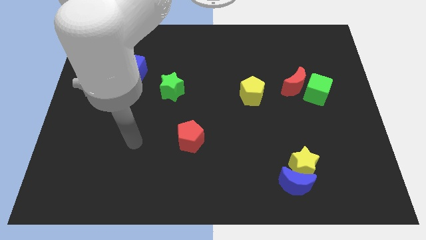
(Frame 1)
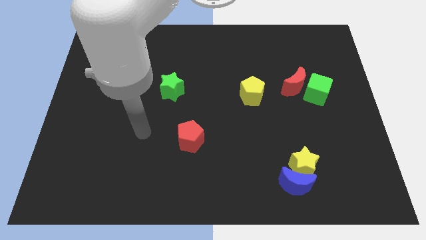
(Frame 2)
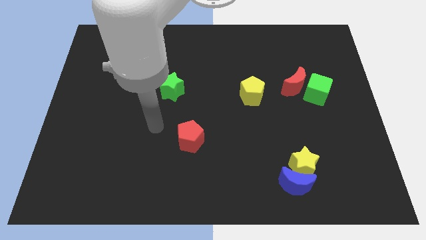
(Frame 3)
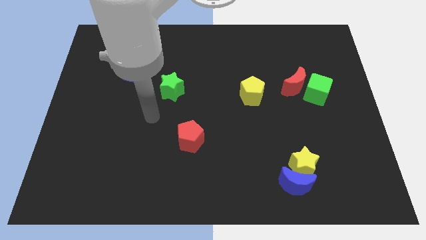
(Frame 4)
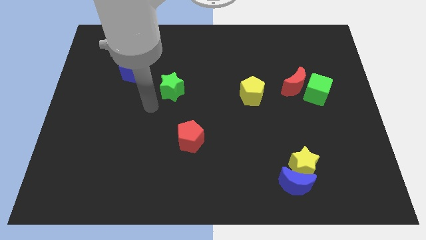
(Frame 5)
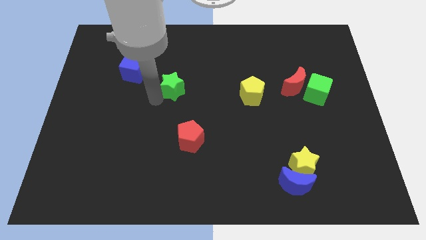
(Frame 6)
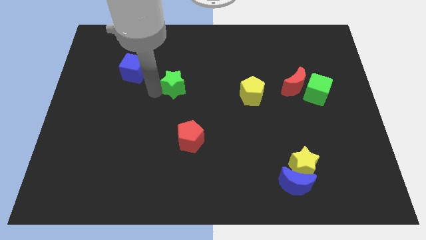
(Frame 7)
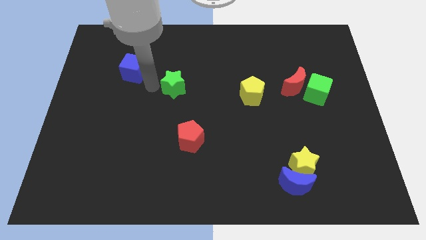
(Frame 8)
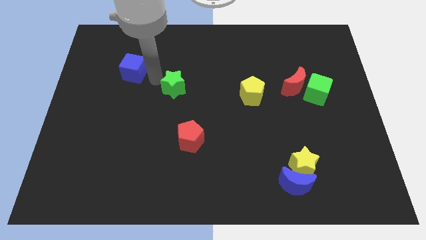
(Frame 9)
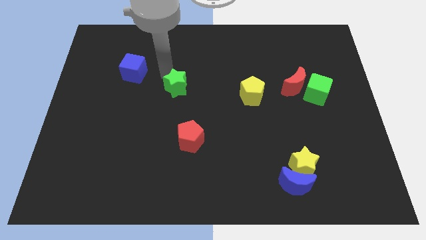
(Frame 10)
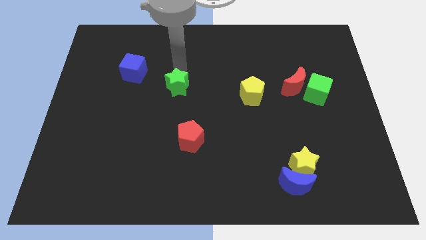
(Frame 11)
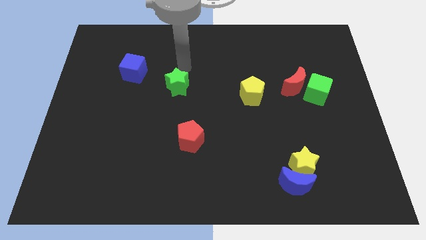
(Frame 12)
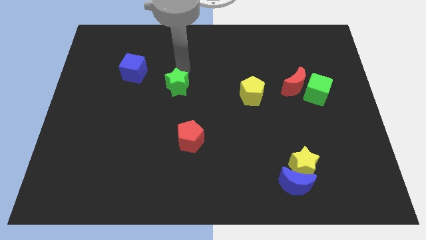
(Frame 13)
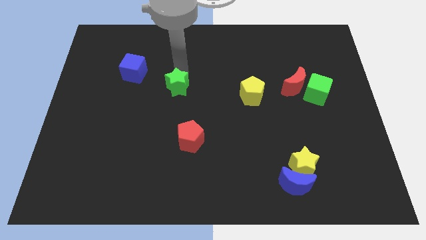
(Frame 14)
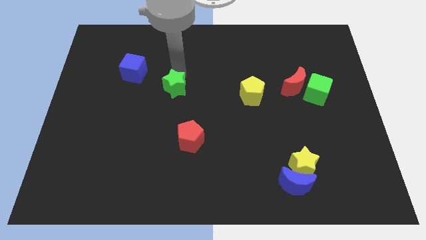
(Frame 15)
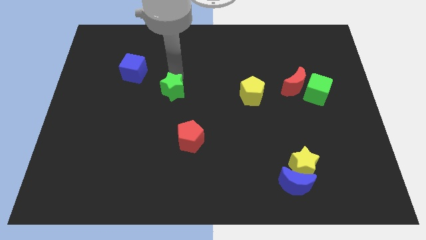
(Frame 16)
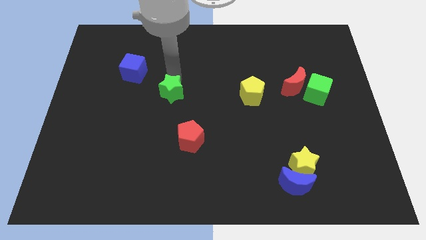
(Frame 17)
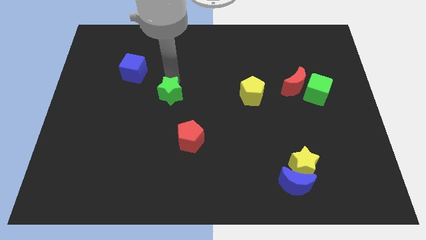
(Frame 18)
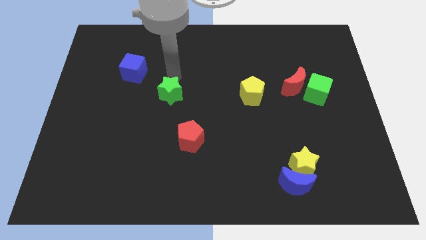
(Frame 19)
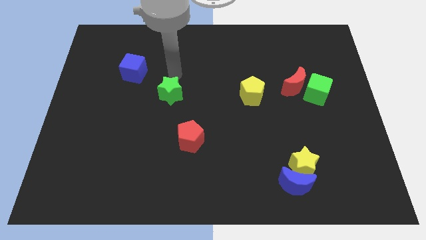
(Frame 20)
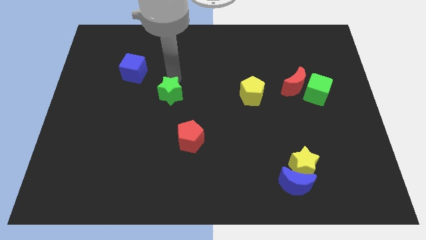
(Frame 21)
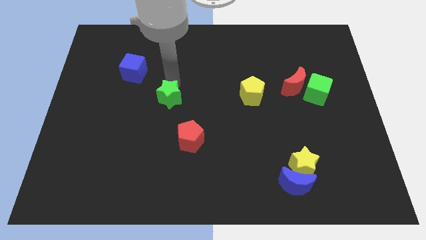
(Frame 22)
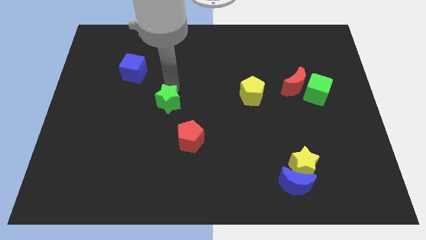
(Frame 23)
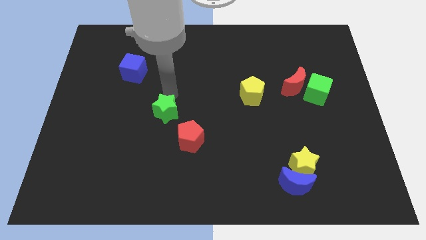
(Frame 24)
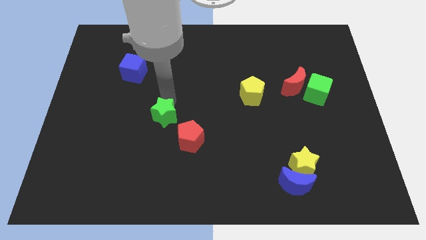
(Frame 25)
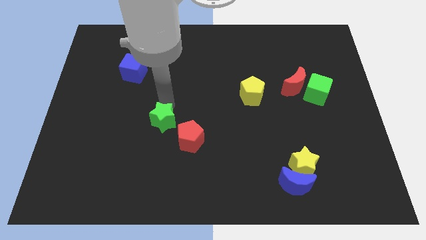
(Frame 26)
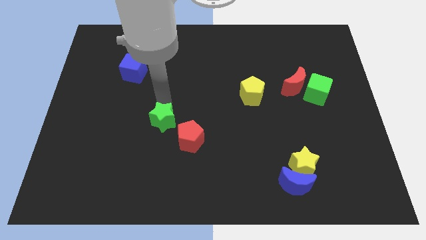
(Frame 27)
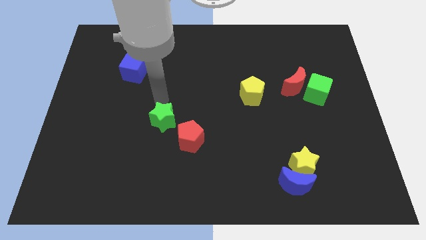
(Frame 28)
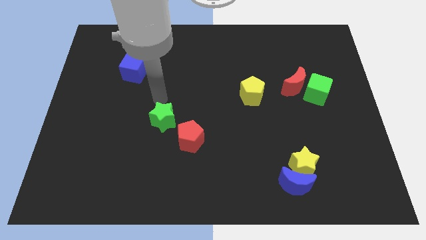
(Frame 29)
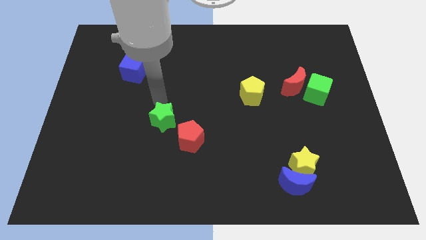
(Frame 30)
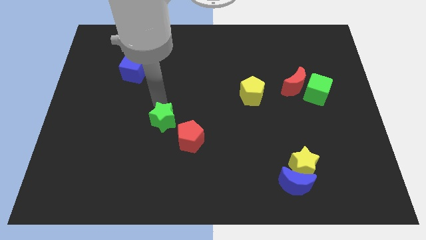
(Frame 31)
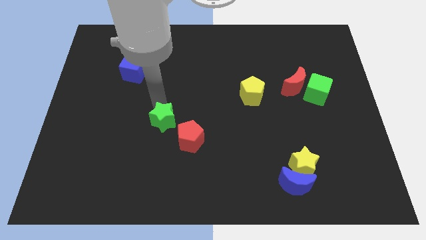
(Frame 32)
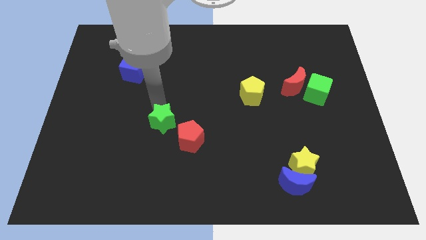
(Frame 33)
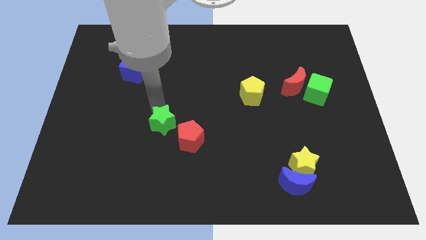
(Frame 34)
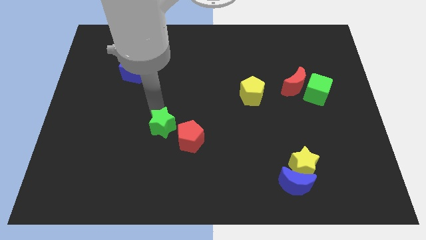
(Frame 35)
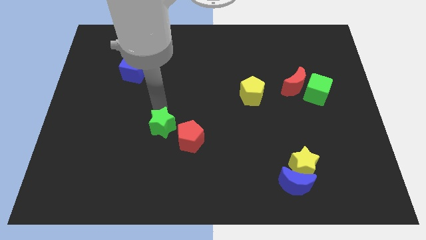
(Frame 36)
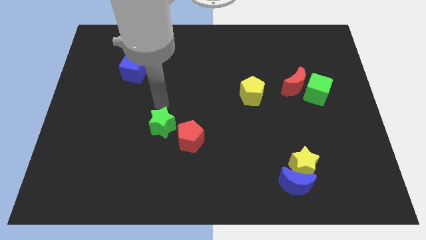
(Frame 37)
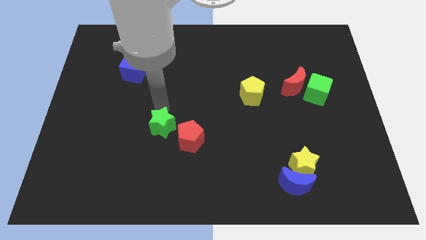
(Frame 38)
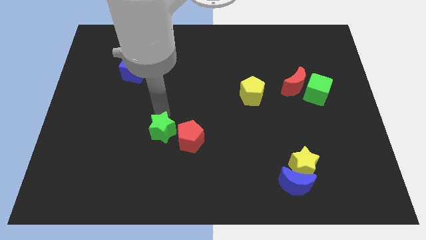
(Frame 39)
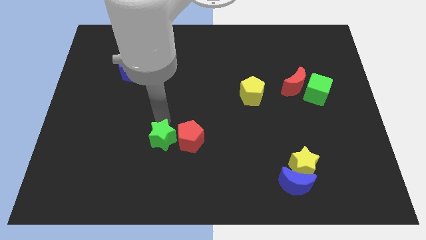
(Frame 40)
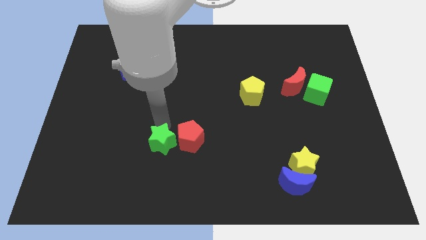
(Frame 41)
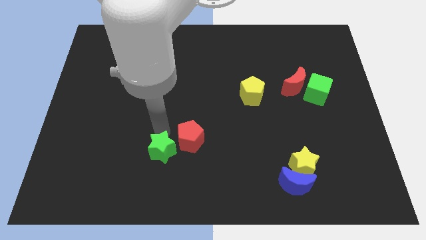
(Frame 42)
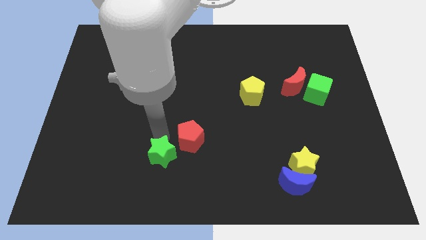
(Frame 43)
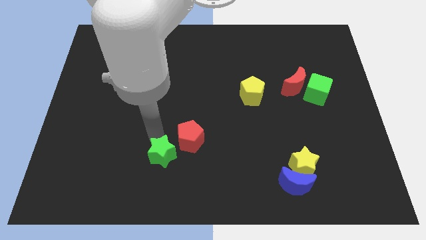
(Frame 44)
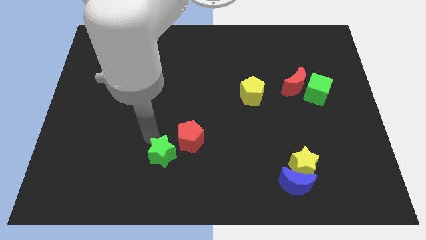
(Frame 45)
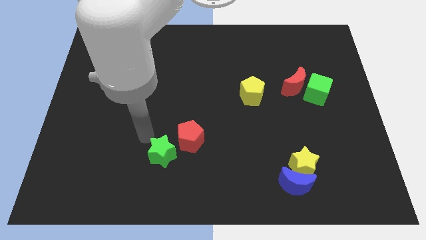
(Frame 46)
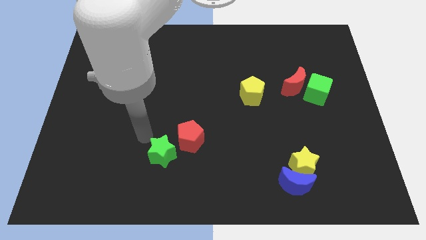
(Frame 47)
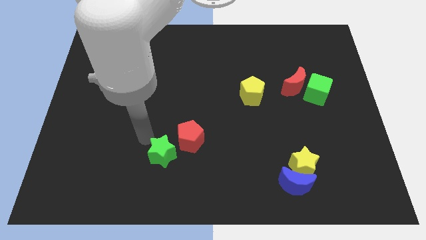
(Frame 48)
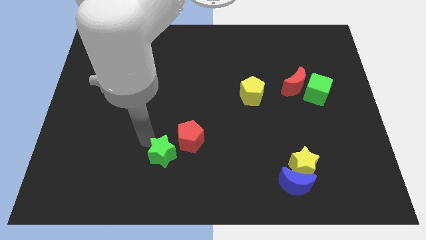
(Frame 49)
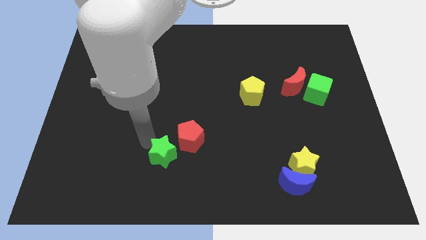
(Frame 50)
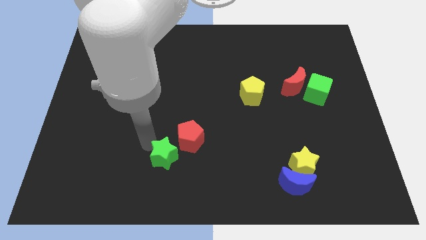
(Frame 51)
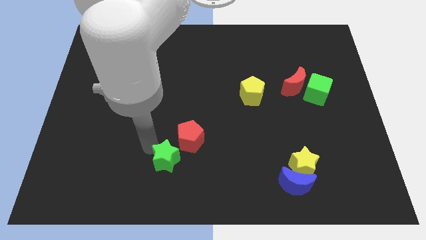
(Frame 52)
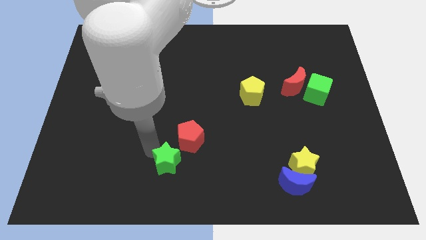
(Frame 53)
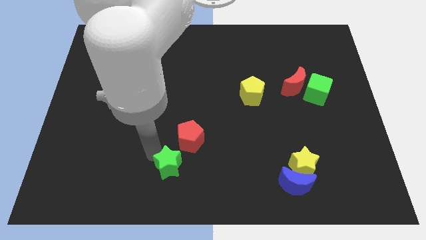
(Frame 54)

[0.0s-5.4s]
put the green star to the bottom side

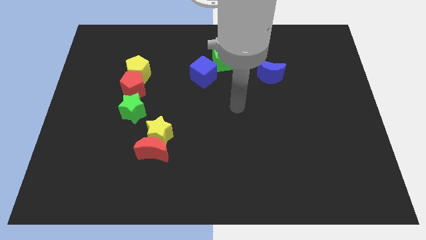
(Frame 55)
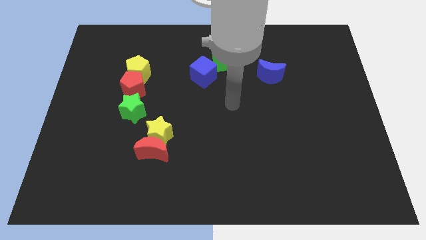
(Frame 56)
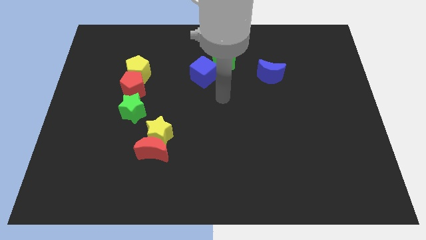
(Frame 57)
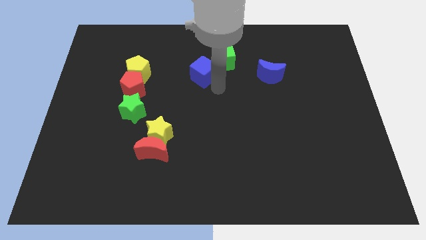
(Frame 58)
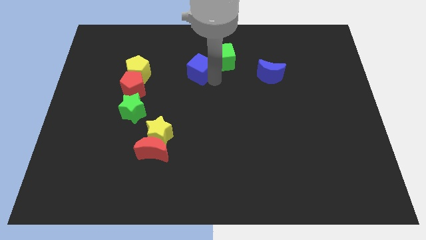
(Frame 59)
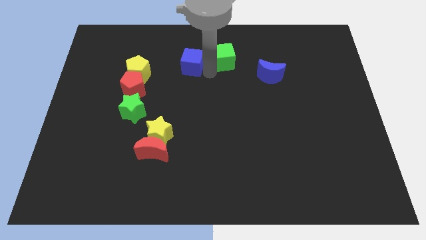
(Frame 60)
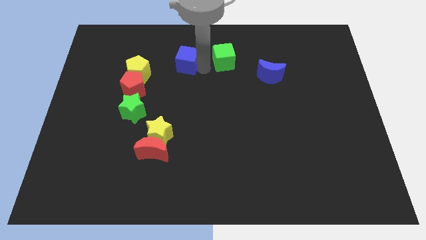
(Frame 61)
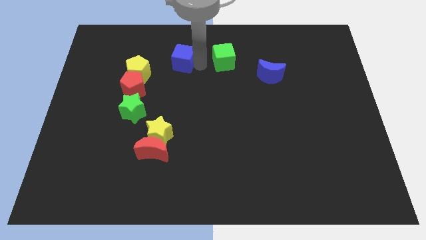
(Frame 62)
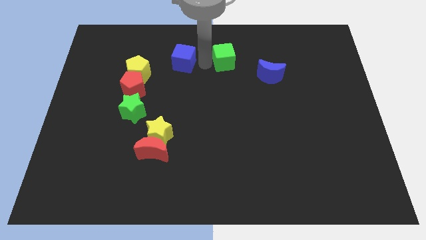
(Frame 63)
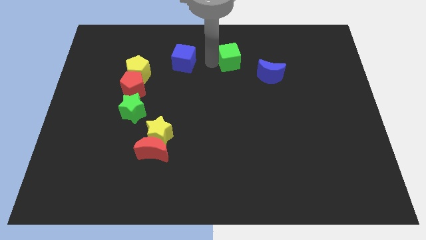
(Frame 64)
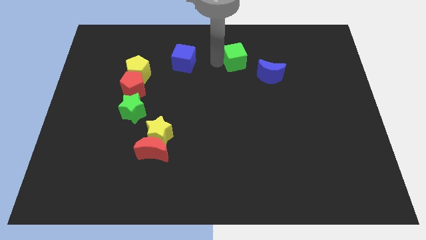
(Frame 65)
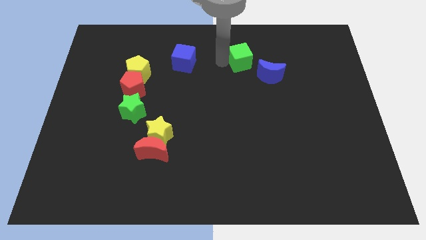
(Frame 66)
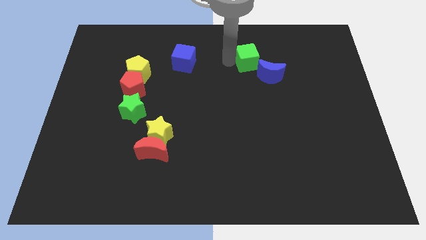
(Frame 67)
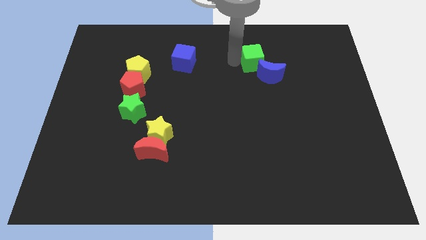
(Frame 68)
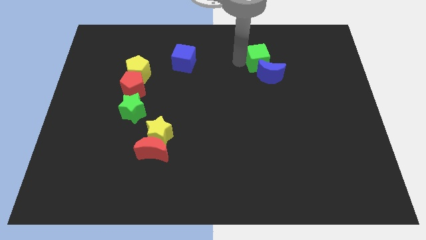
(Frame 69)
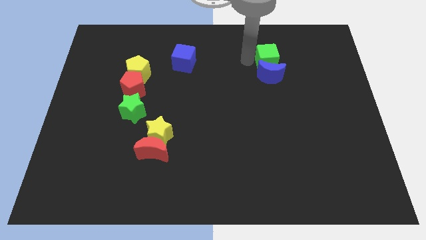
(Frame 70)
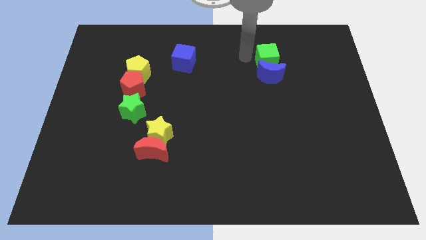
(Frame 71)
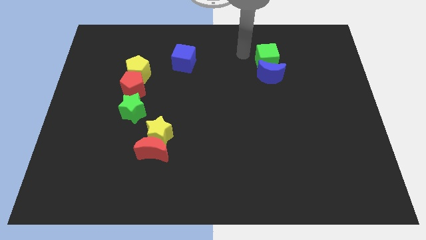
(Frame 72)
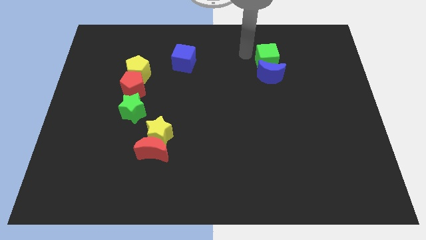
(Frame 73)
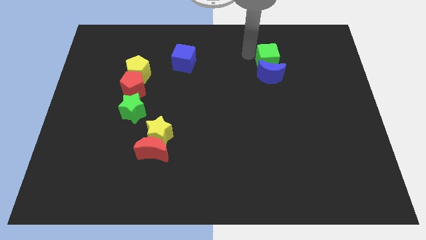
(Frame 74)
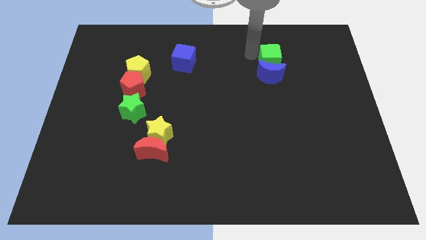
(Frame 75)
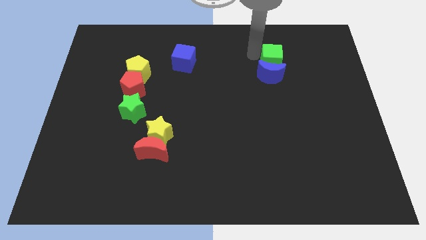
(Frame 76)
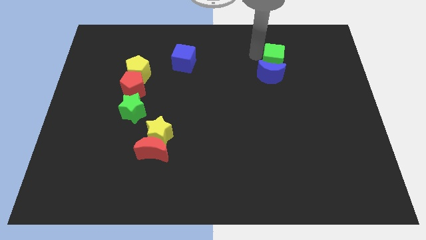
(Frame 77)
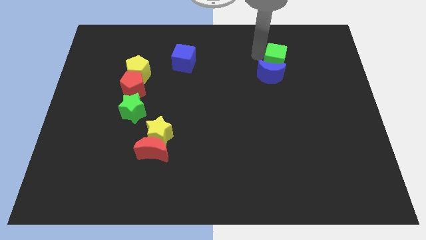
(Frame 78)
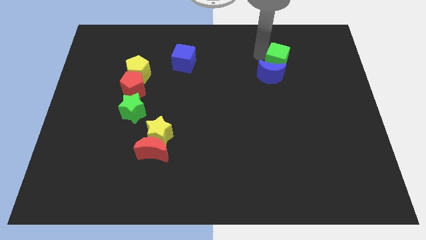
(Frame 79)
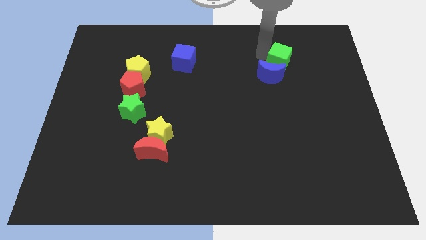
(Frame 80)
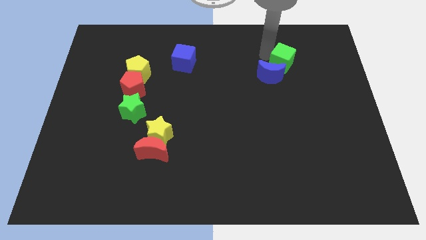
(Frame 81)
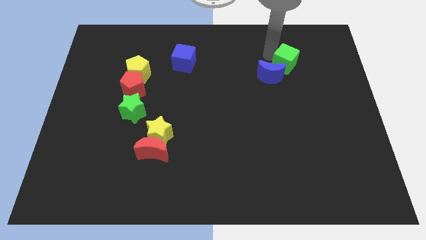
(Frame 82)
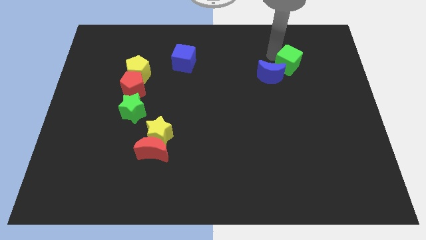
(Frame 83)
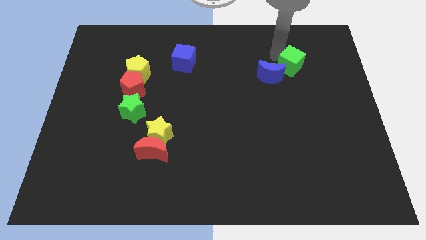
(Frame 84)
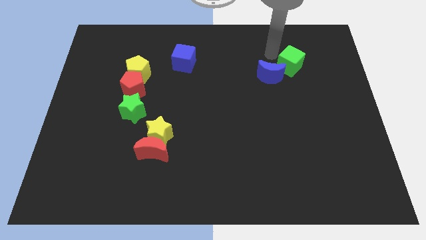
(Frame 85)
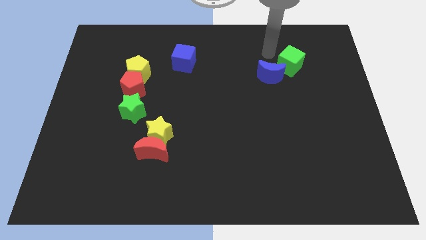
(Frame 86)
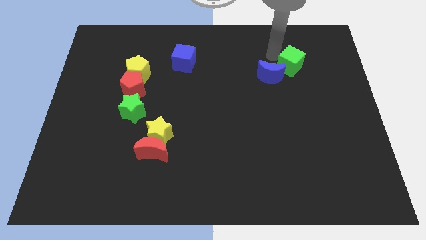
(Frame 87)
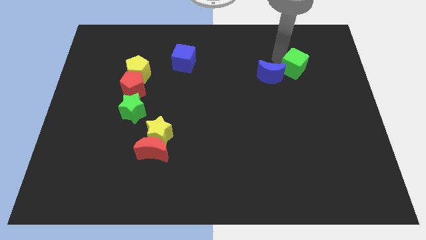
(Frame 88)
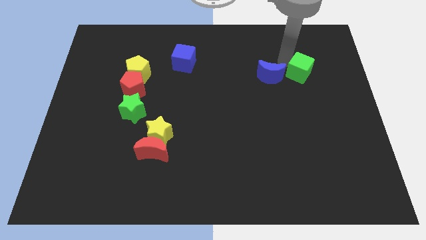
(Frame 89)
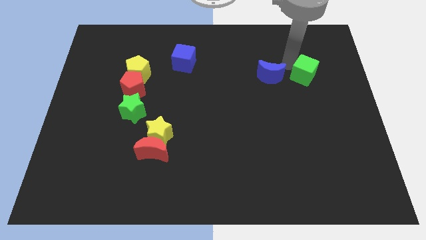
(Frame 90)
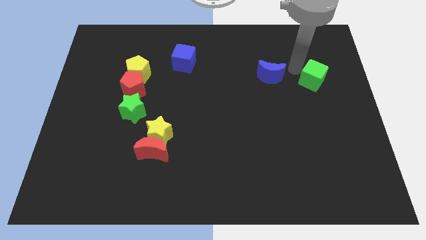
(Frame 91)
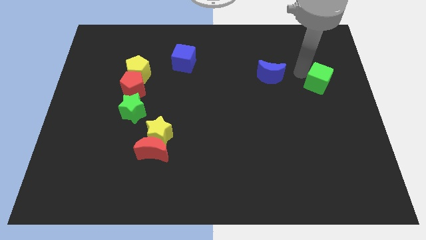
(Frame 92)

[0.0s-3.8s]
push the green cube to the right side of the board
